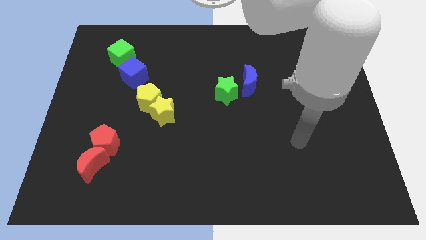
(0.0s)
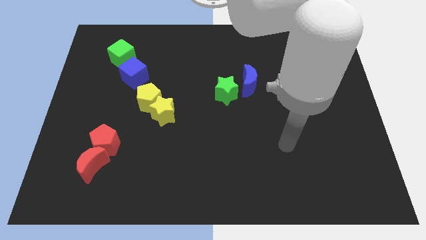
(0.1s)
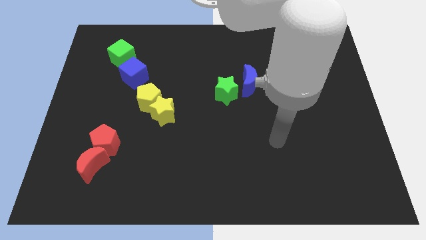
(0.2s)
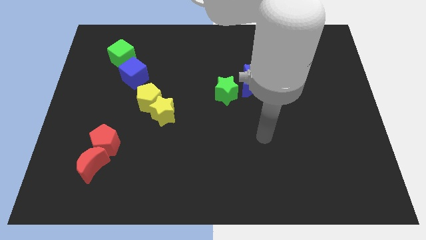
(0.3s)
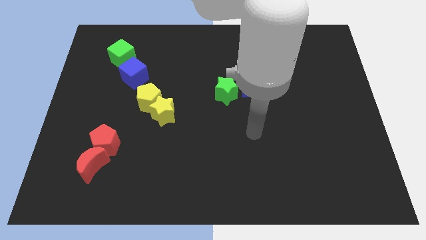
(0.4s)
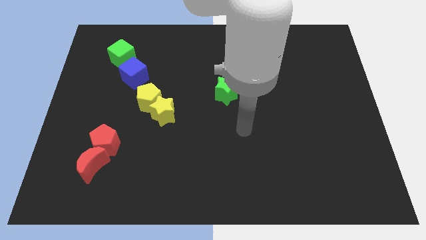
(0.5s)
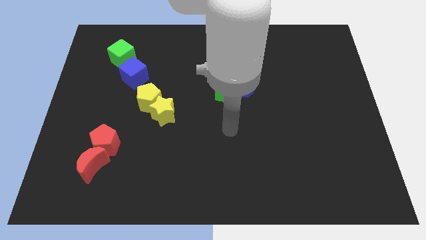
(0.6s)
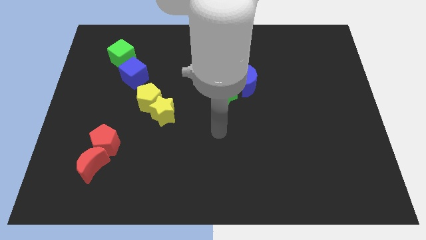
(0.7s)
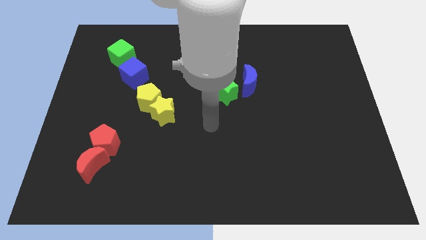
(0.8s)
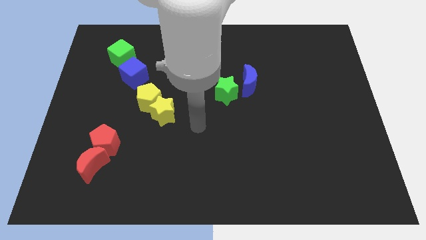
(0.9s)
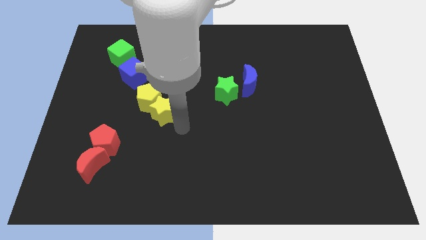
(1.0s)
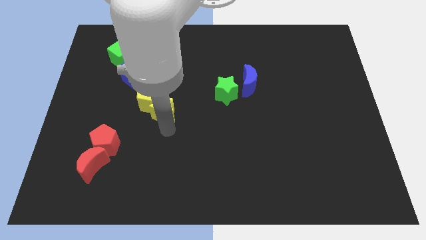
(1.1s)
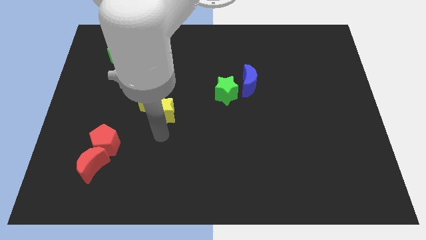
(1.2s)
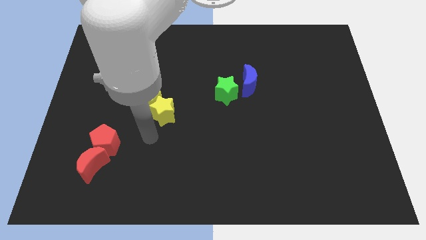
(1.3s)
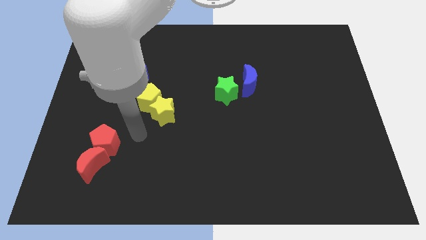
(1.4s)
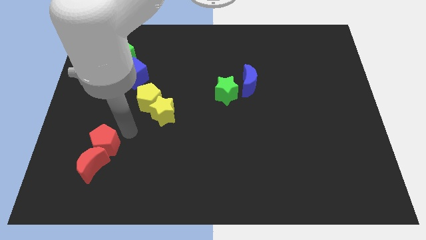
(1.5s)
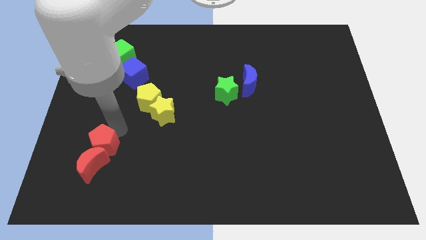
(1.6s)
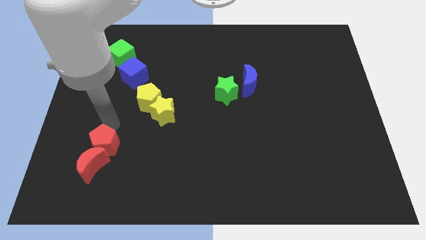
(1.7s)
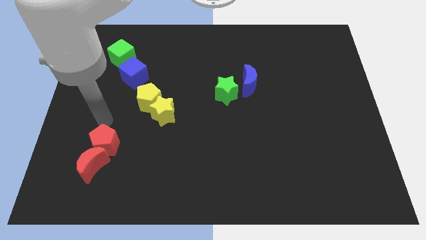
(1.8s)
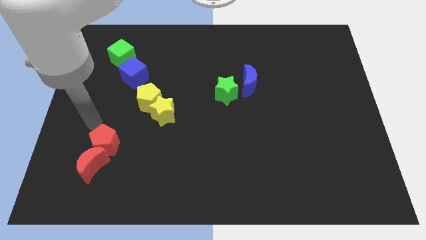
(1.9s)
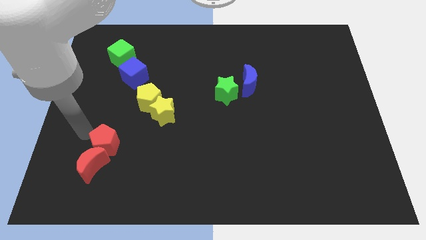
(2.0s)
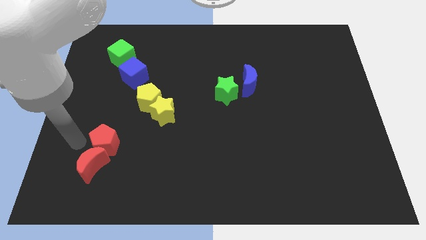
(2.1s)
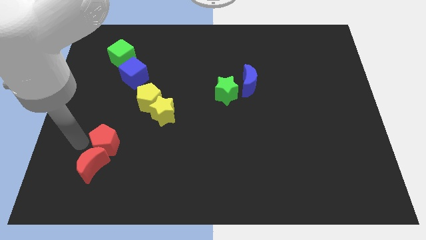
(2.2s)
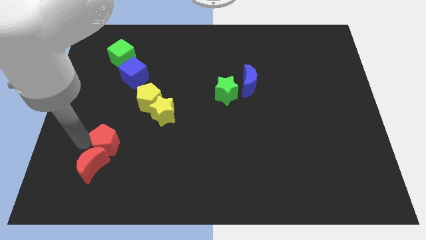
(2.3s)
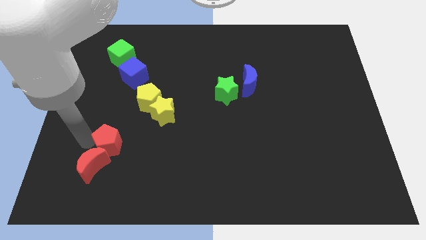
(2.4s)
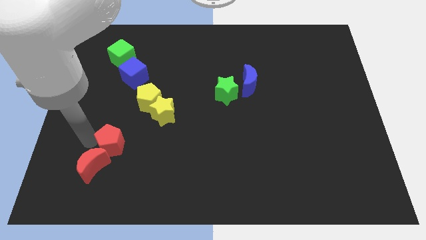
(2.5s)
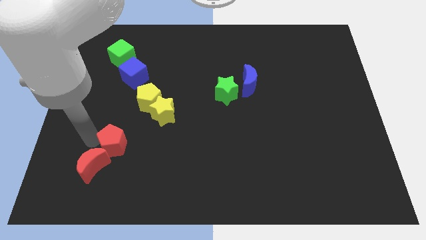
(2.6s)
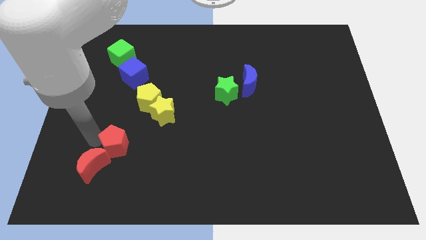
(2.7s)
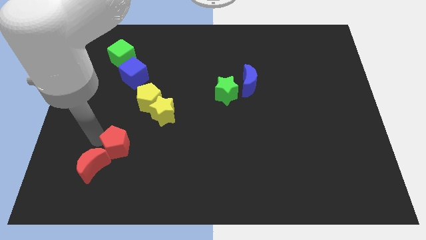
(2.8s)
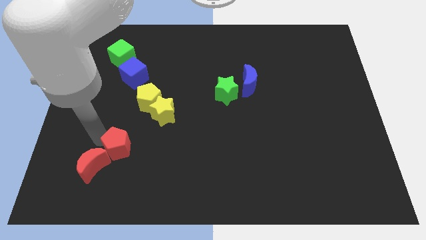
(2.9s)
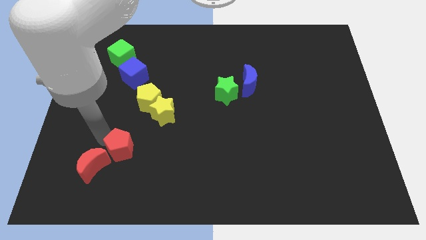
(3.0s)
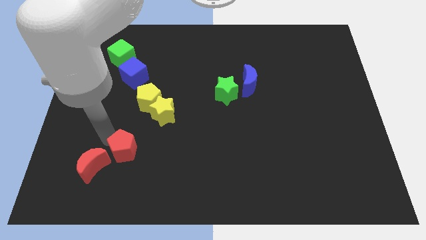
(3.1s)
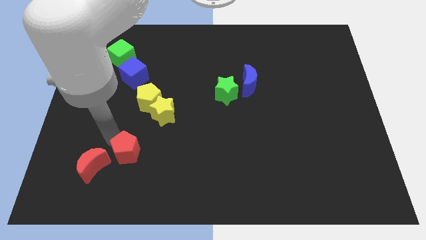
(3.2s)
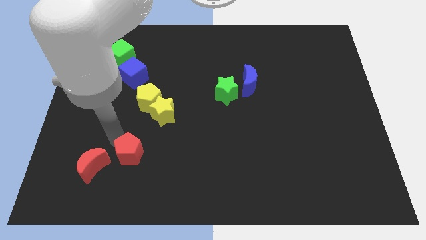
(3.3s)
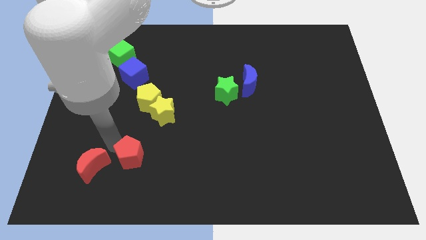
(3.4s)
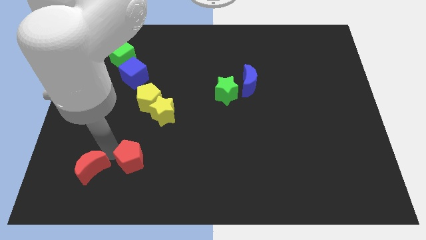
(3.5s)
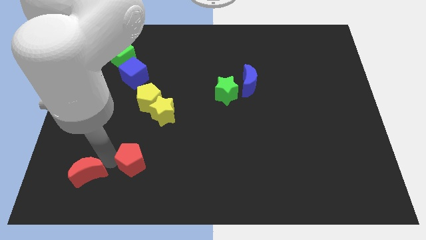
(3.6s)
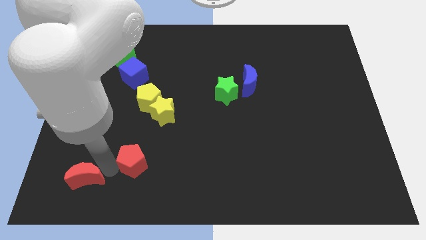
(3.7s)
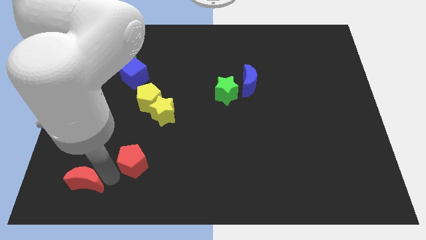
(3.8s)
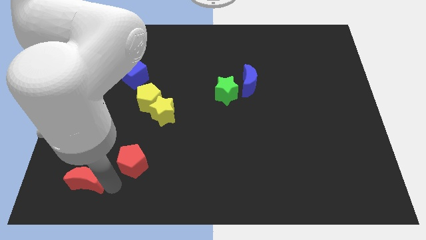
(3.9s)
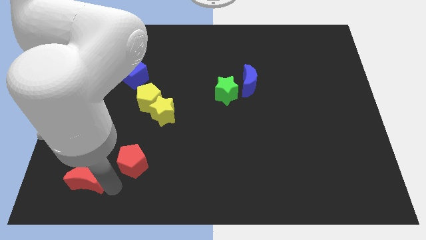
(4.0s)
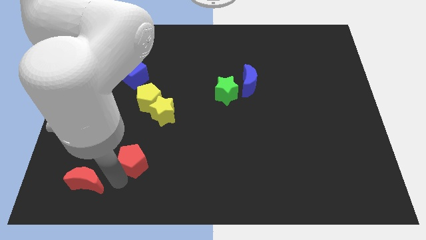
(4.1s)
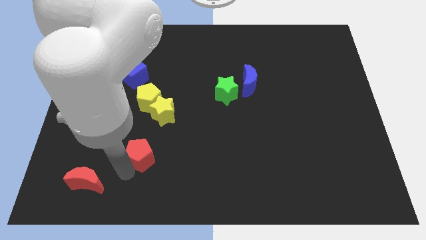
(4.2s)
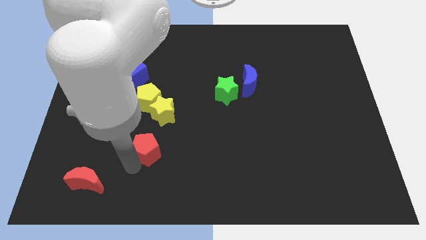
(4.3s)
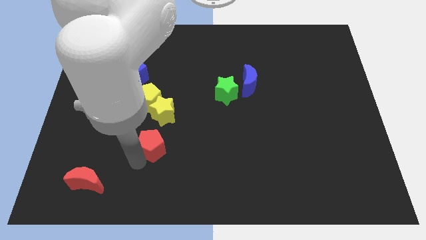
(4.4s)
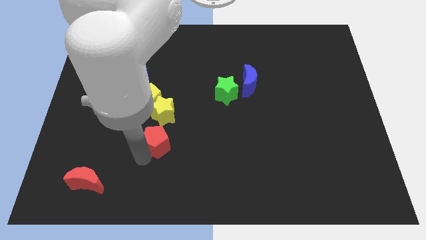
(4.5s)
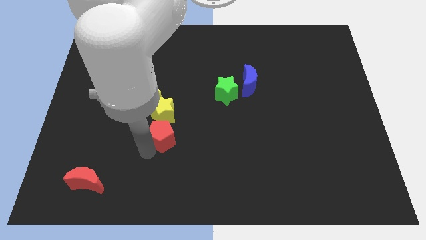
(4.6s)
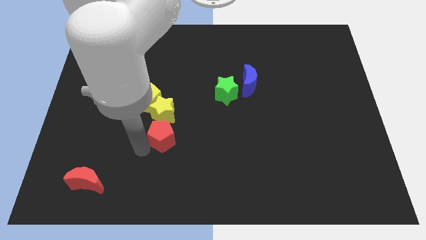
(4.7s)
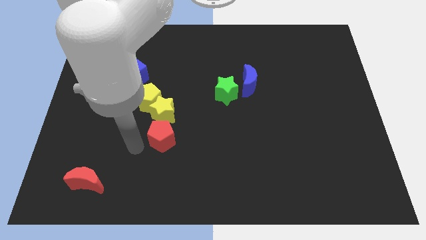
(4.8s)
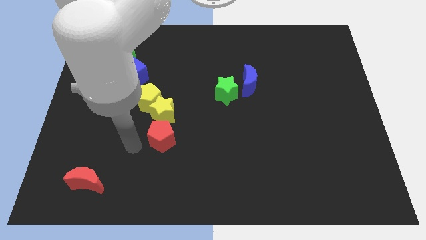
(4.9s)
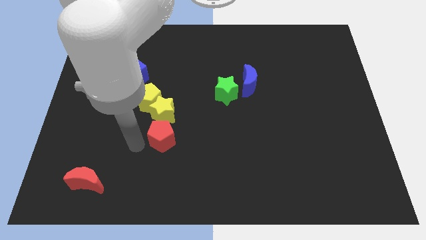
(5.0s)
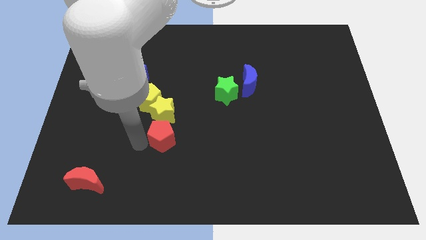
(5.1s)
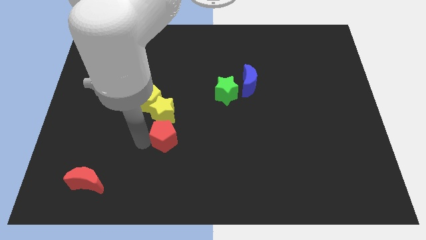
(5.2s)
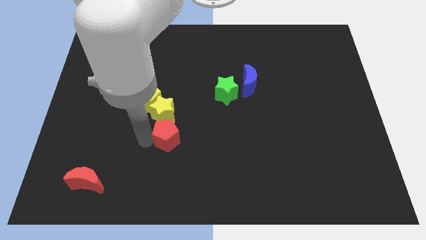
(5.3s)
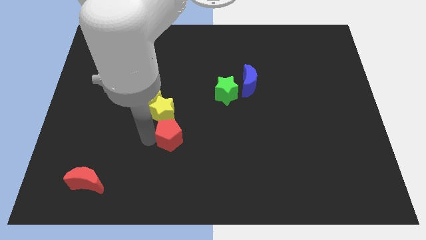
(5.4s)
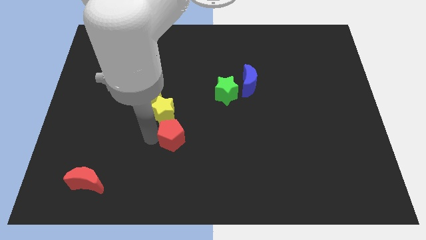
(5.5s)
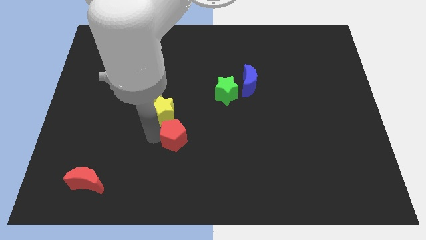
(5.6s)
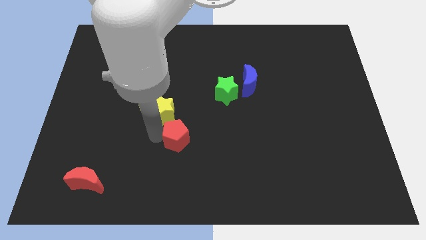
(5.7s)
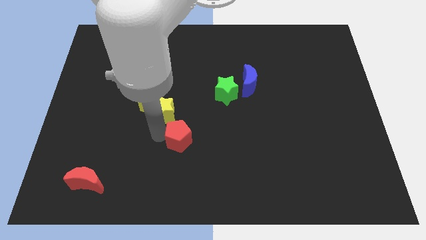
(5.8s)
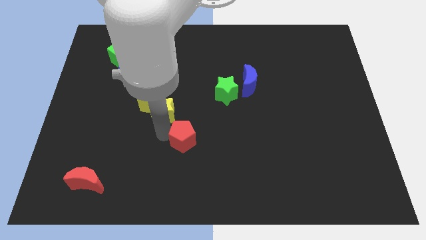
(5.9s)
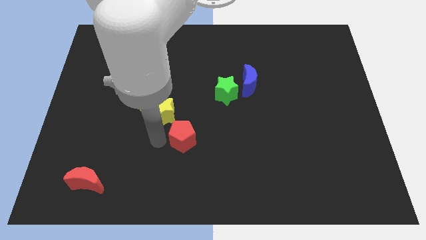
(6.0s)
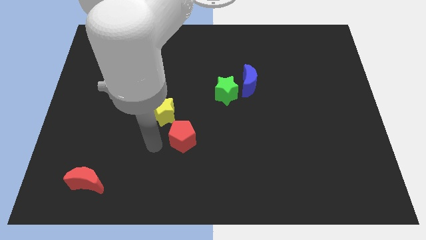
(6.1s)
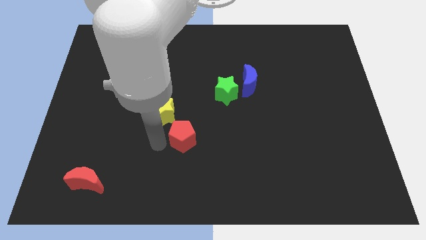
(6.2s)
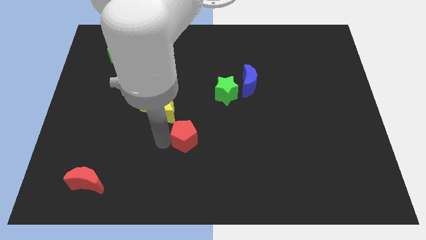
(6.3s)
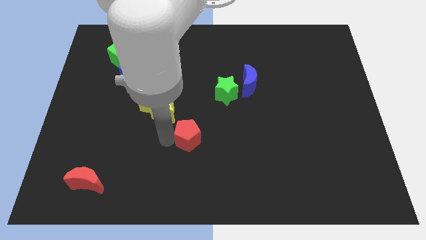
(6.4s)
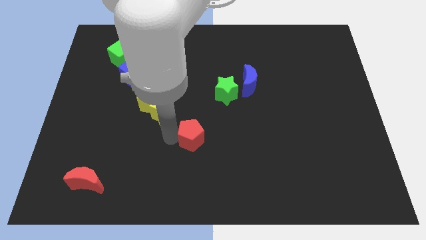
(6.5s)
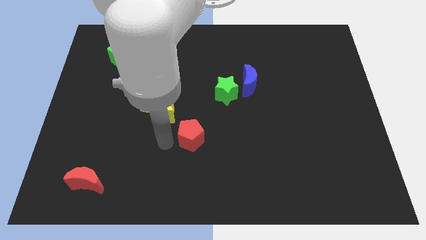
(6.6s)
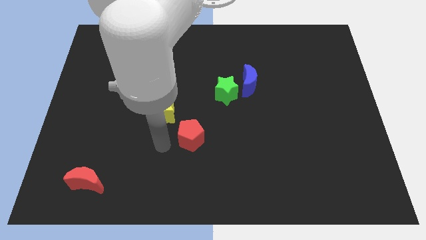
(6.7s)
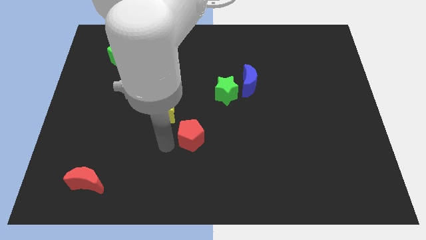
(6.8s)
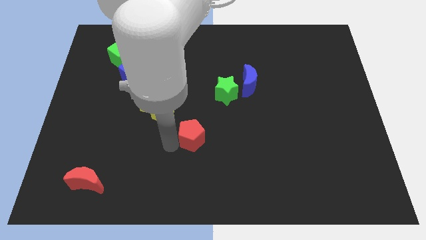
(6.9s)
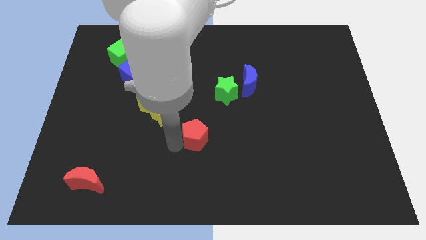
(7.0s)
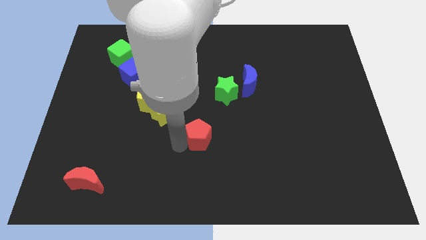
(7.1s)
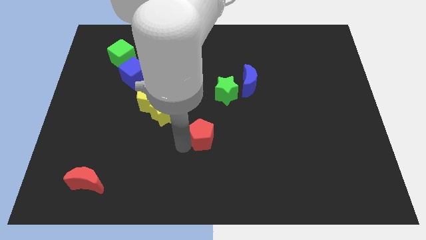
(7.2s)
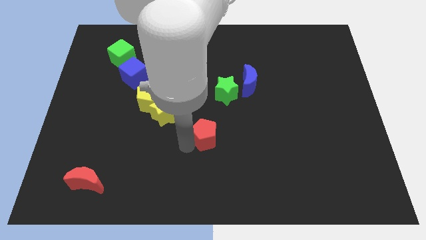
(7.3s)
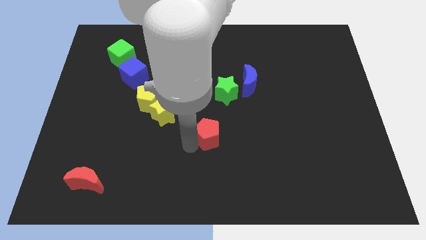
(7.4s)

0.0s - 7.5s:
move the red pentagon below the green star
